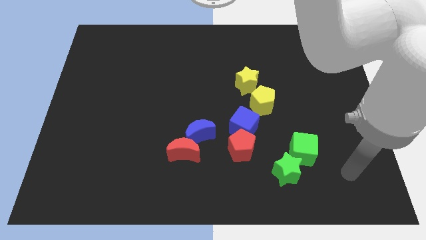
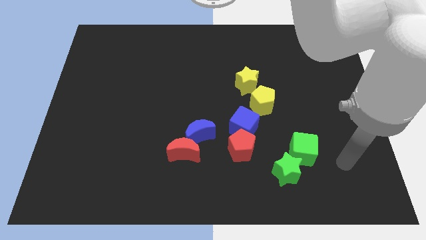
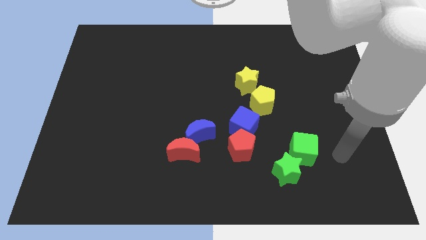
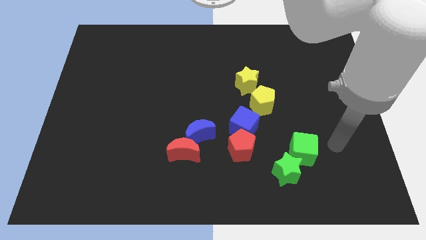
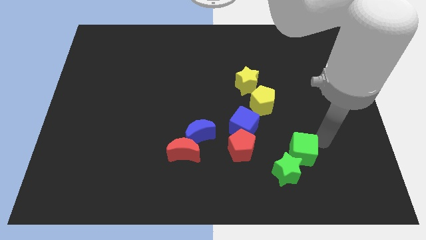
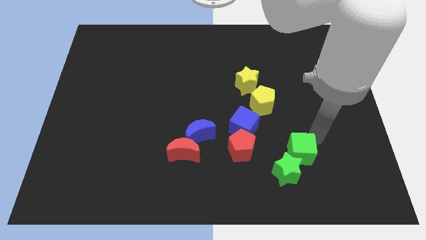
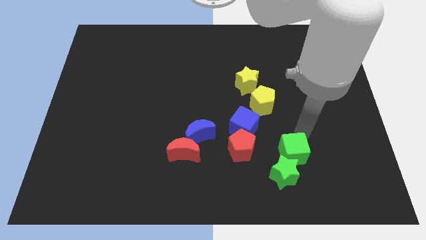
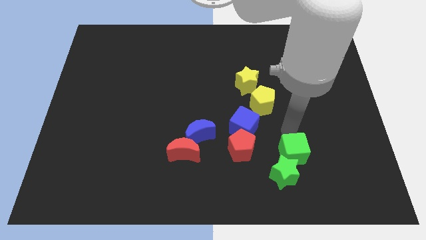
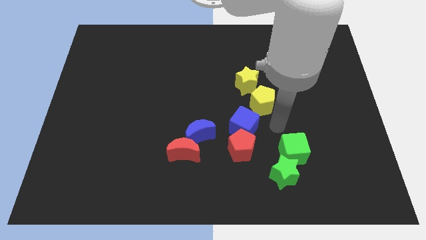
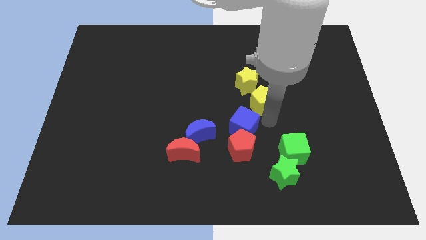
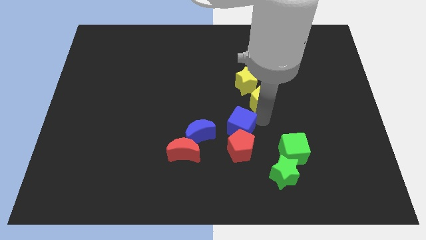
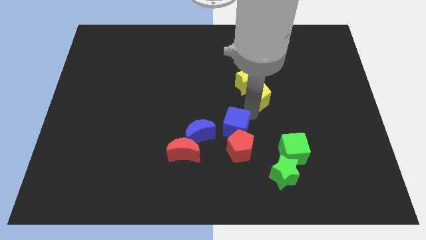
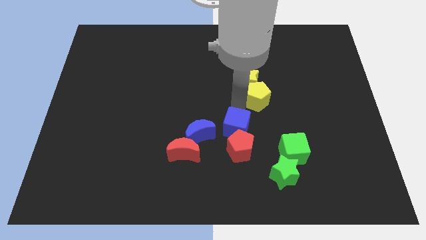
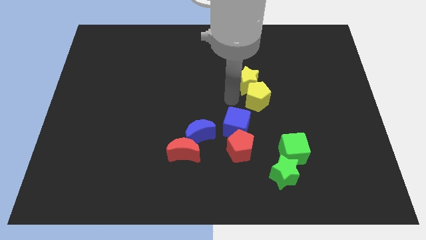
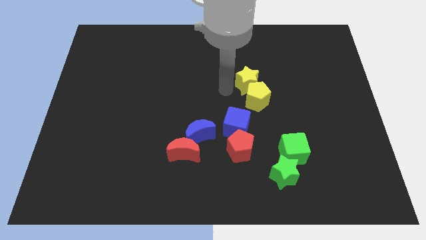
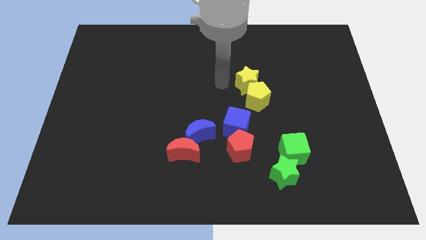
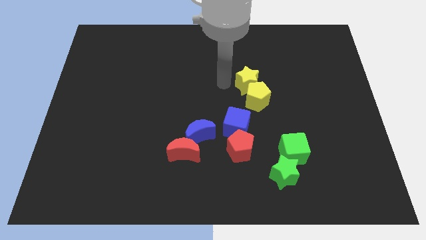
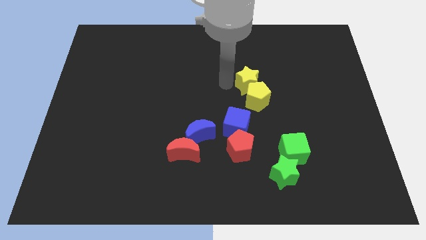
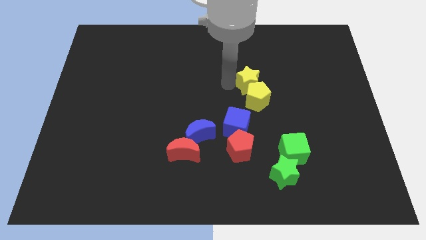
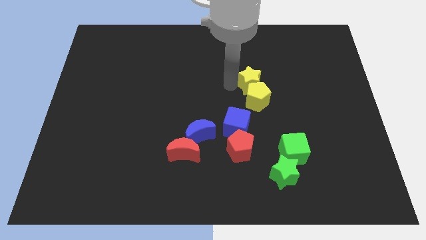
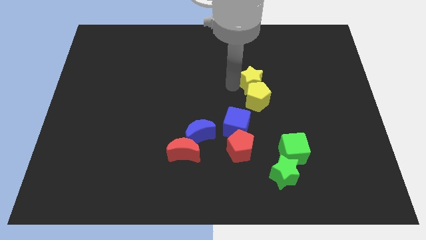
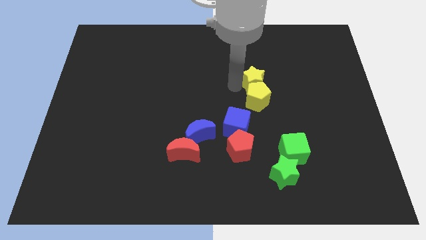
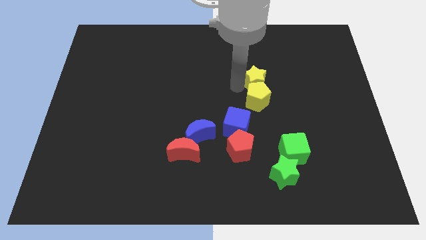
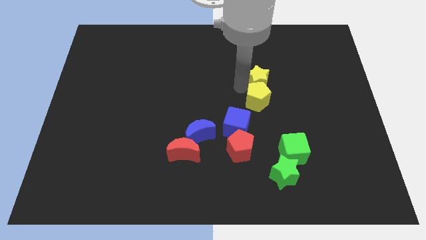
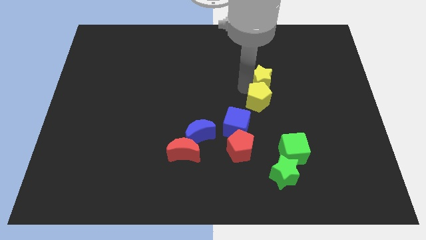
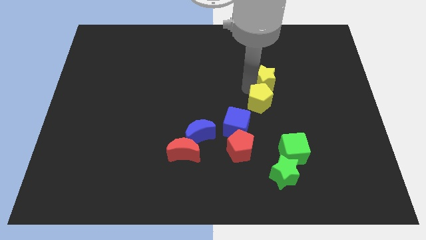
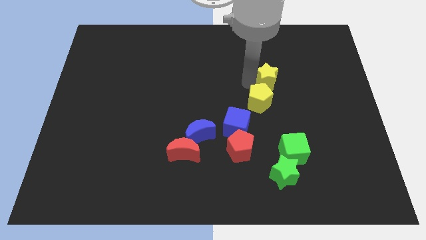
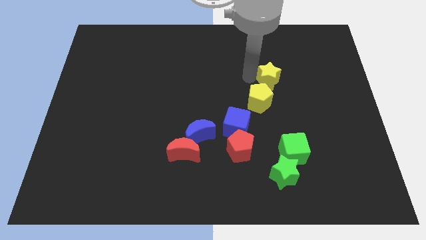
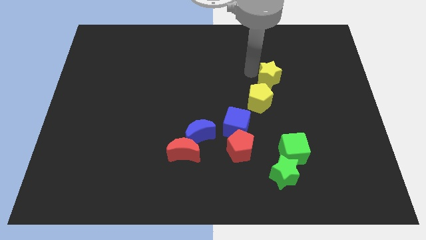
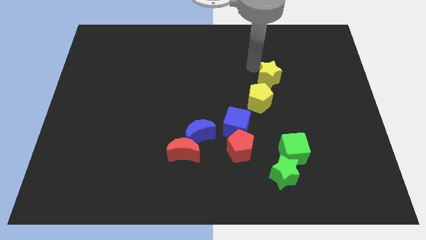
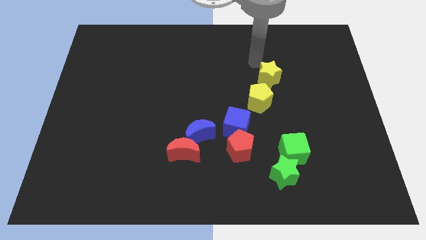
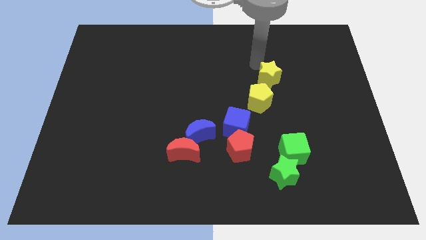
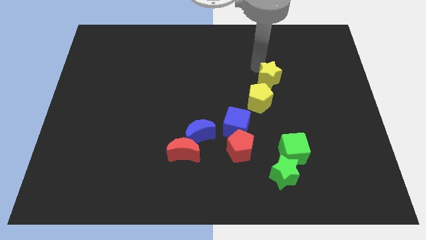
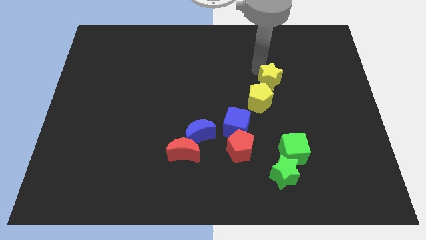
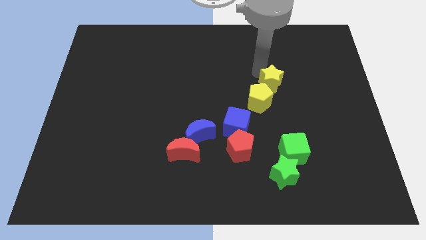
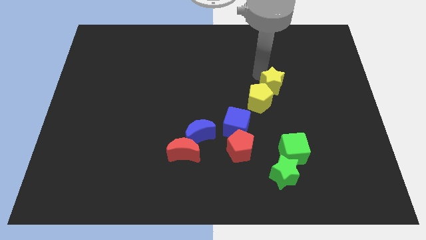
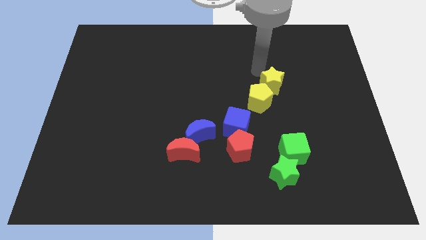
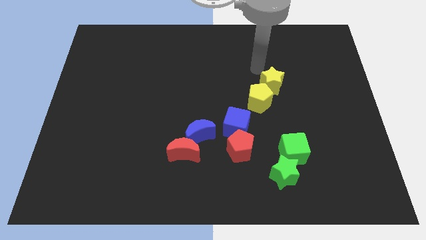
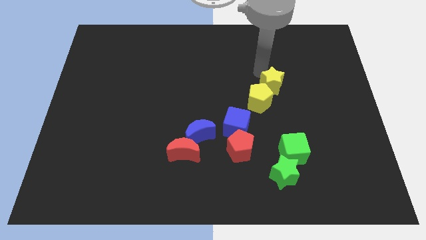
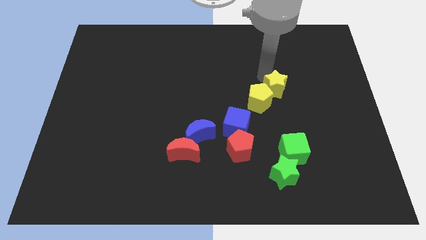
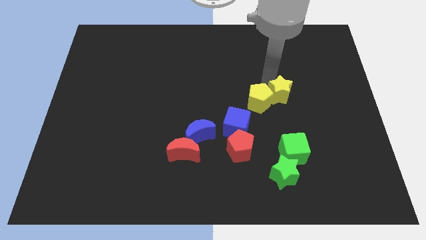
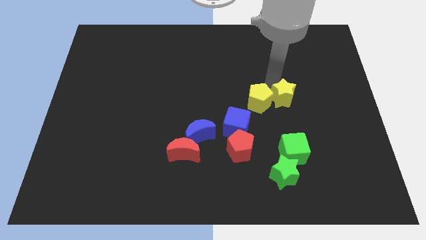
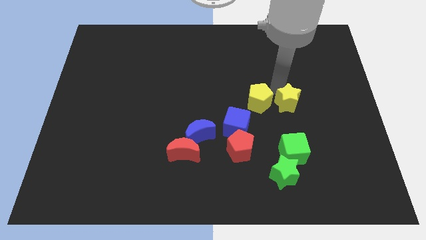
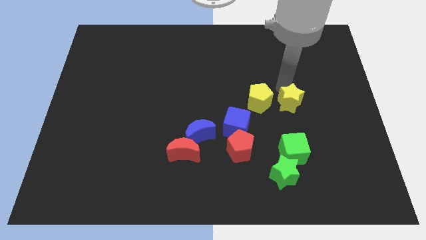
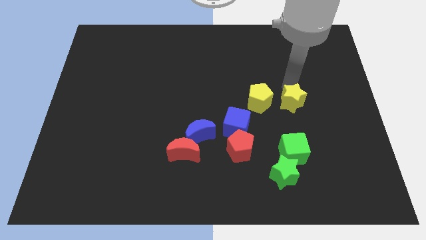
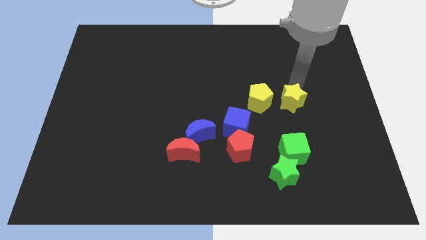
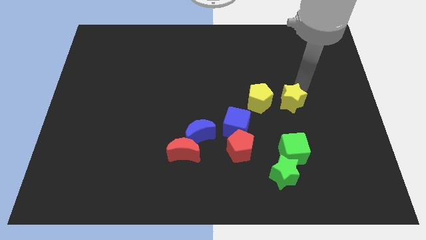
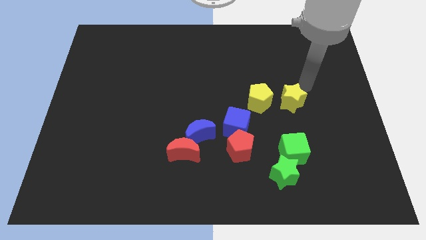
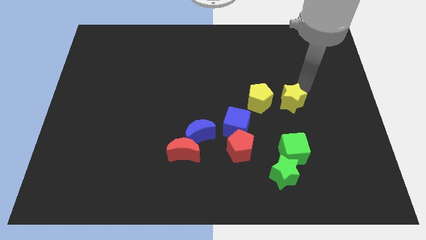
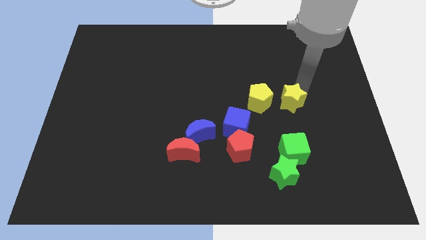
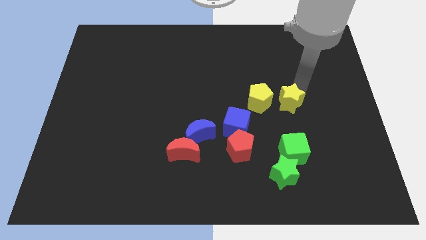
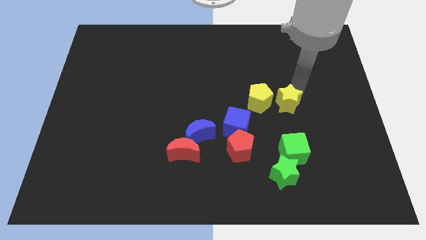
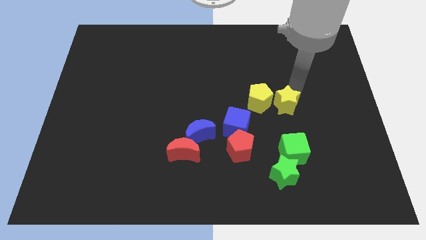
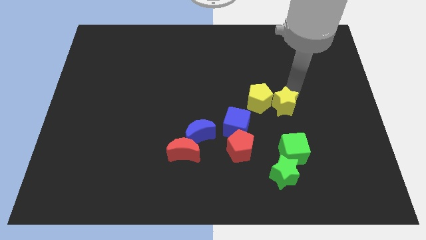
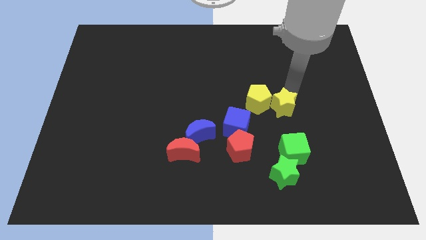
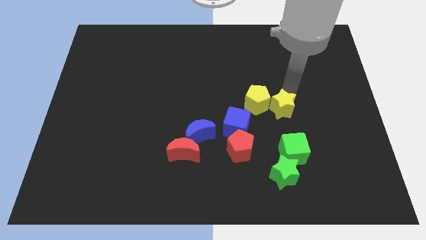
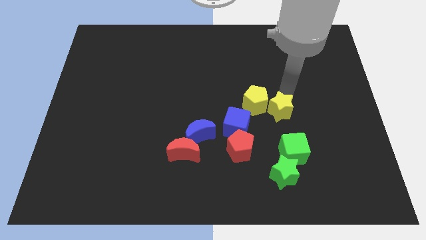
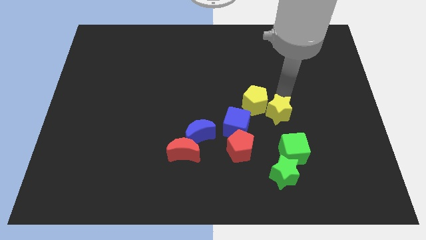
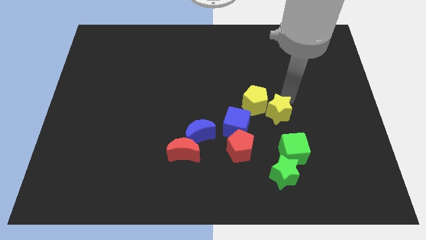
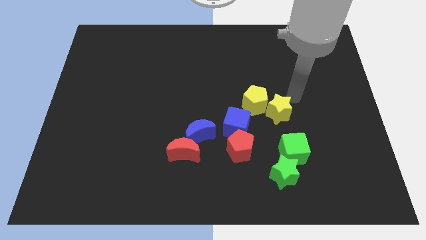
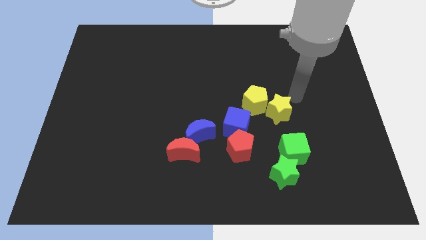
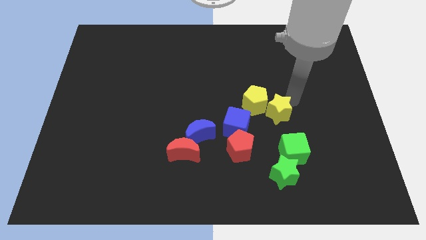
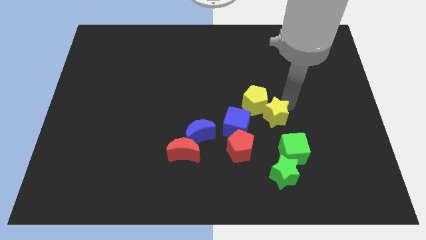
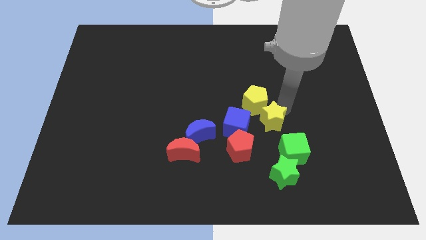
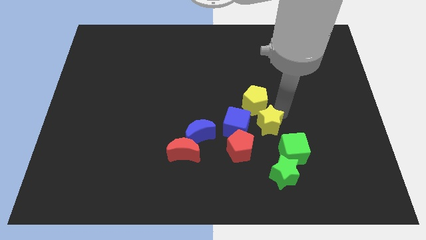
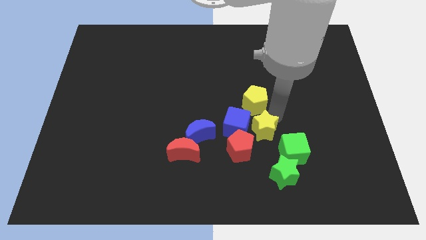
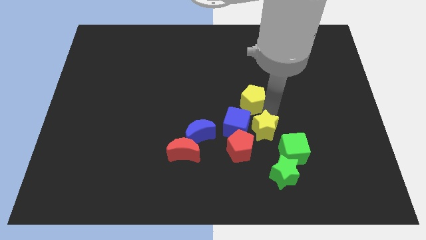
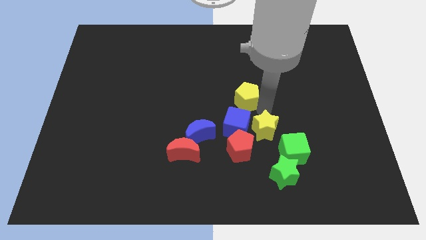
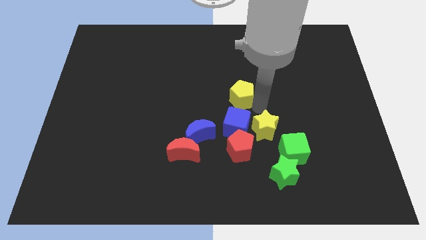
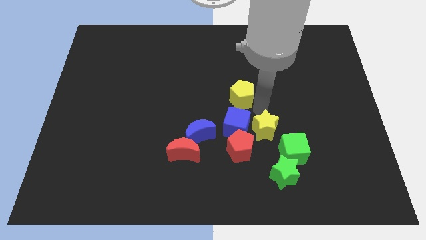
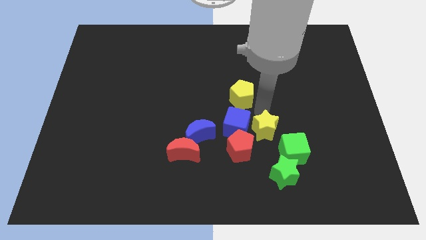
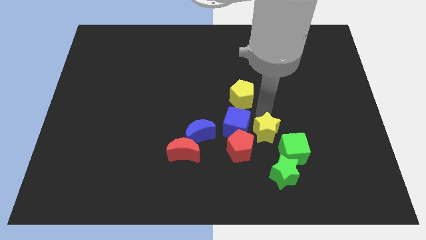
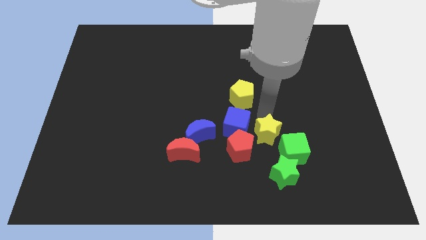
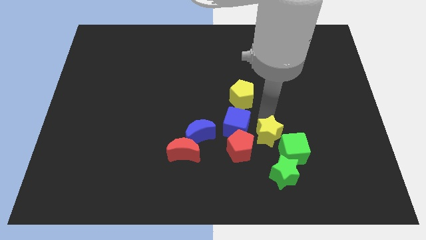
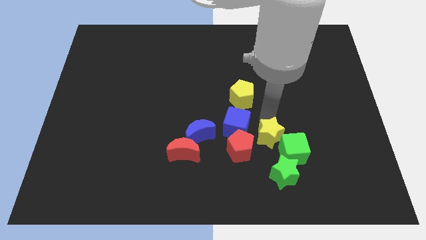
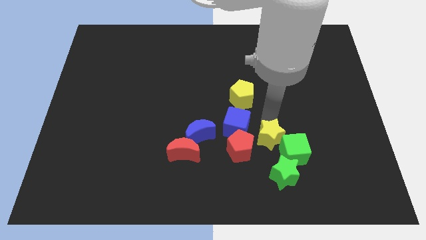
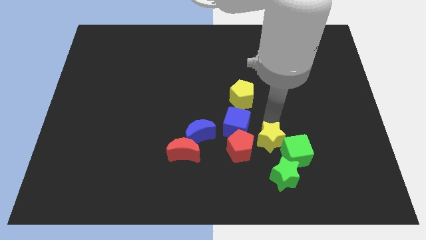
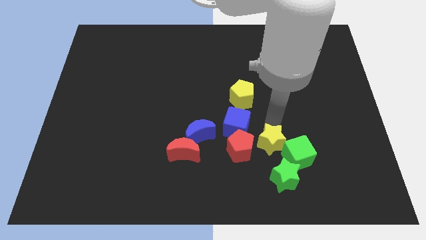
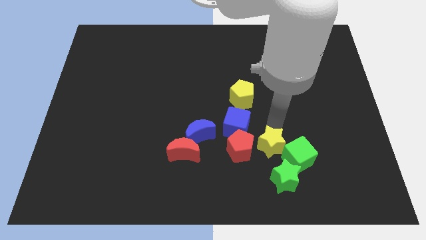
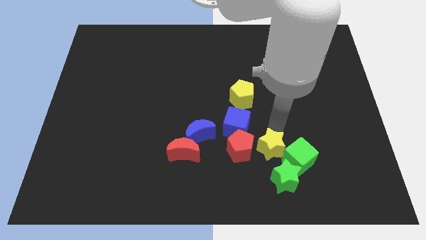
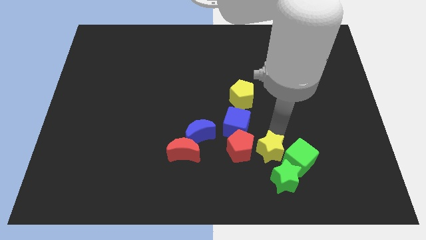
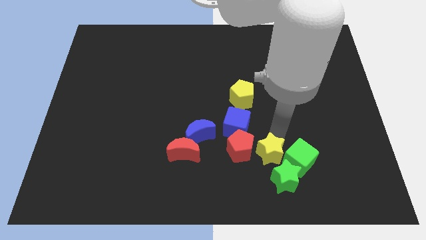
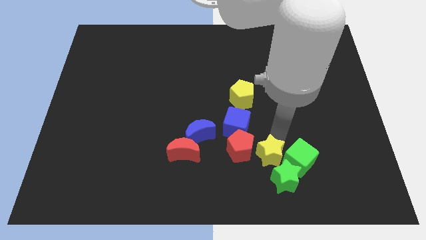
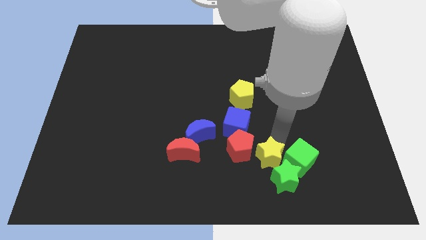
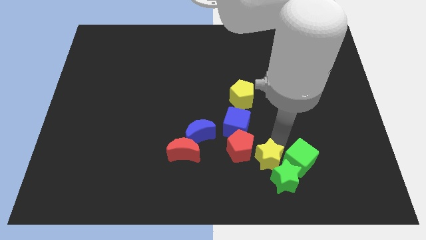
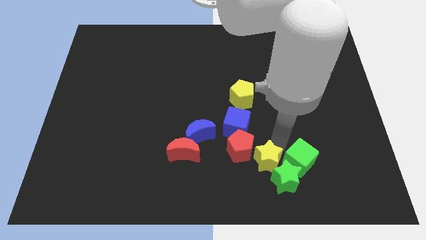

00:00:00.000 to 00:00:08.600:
put the yellow star just left of the green star
